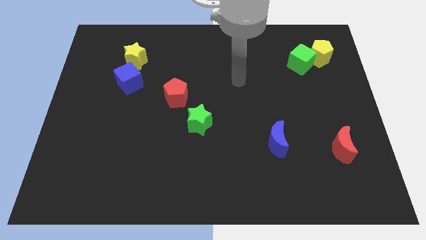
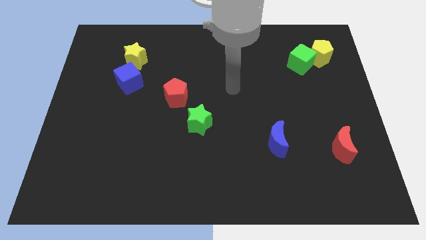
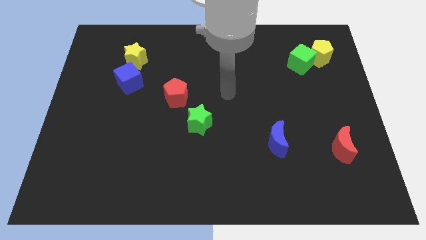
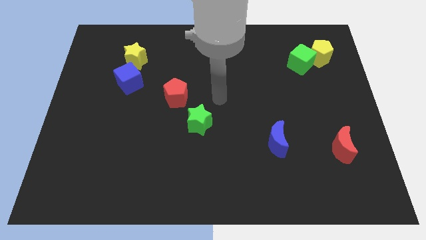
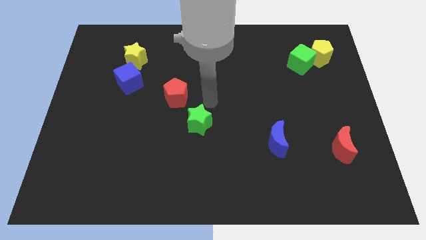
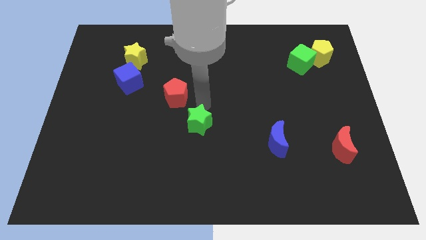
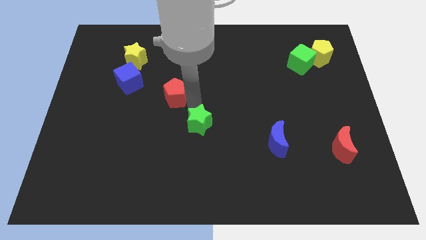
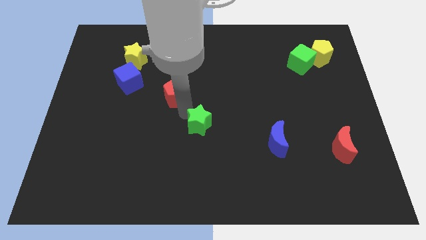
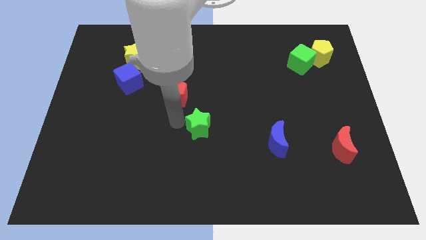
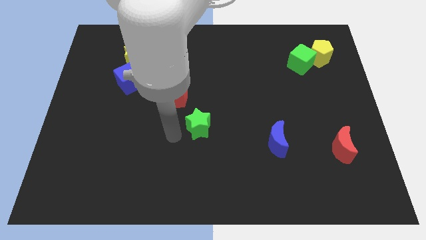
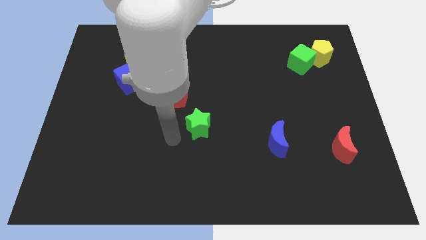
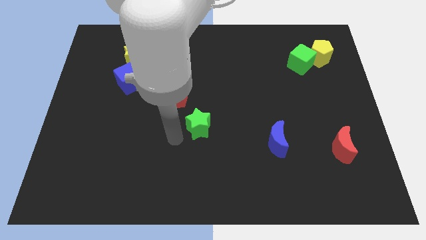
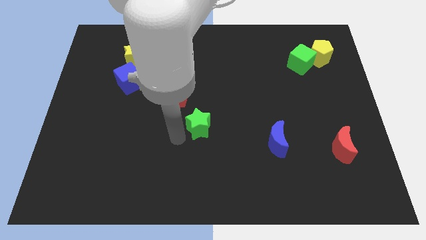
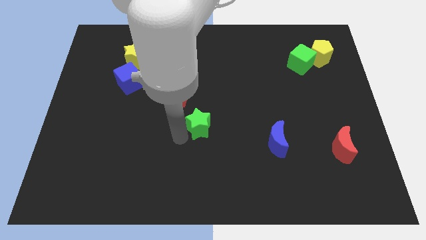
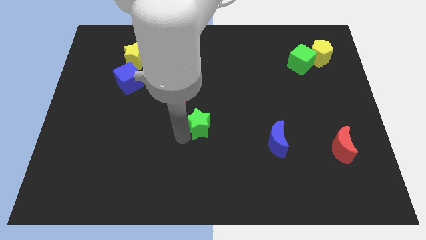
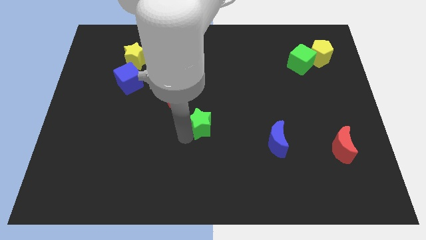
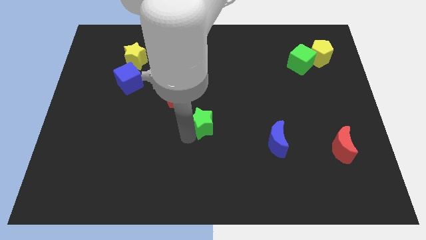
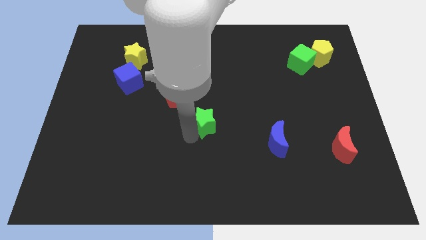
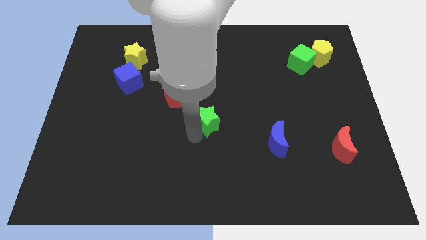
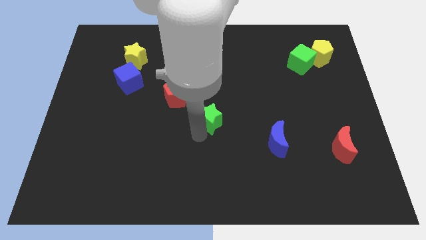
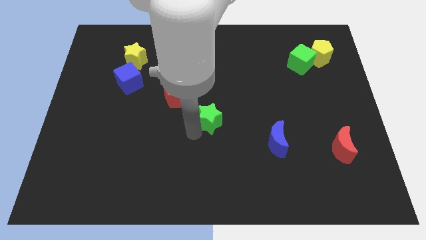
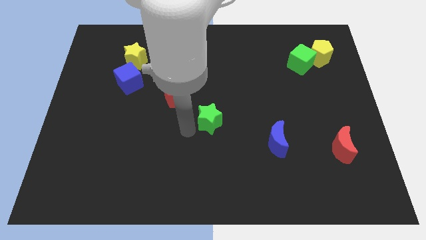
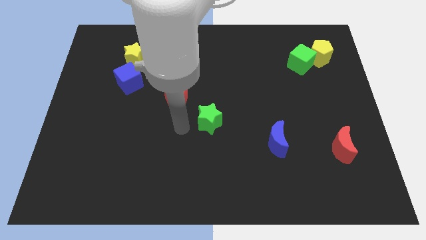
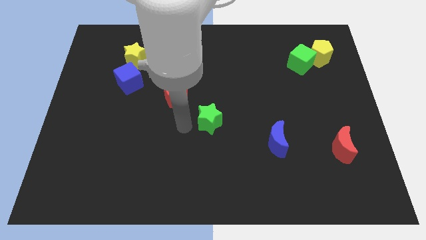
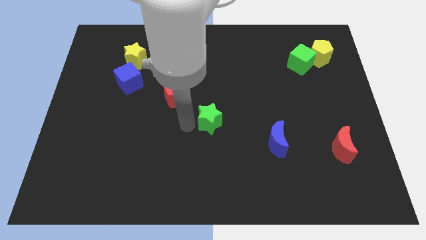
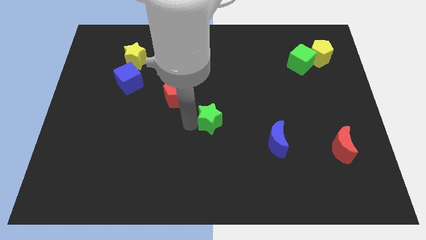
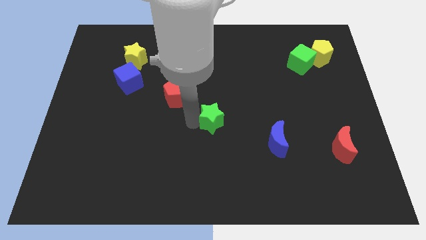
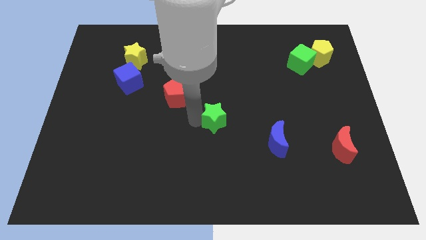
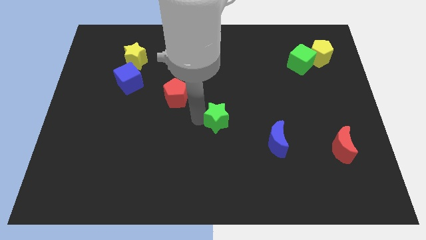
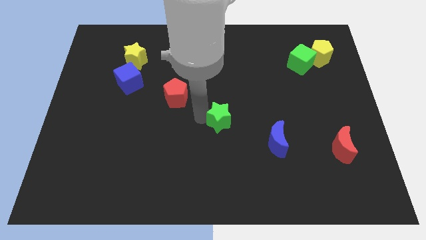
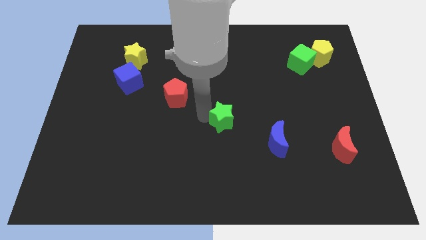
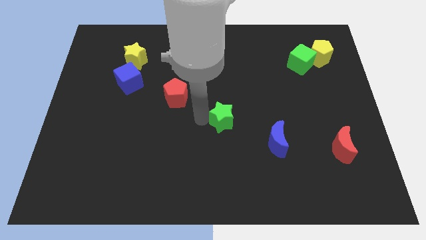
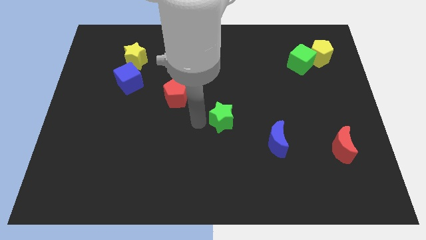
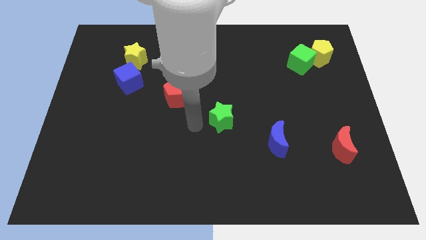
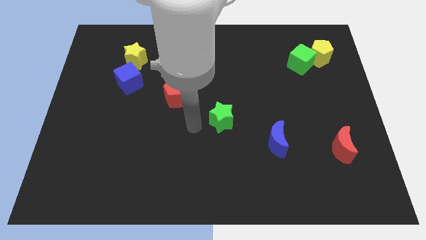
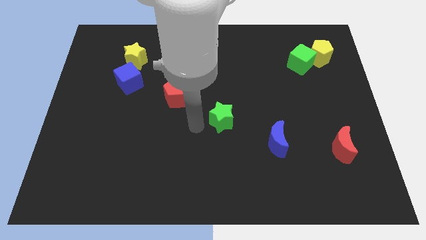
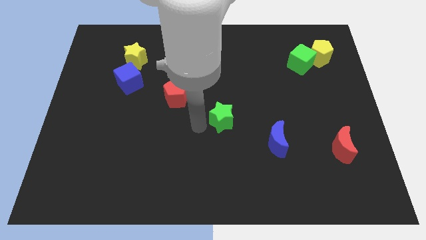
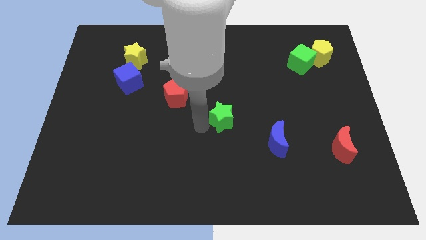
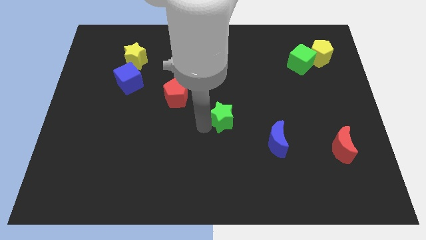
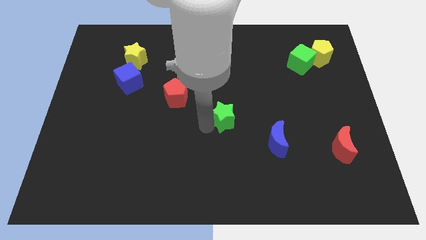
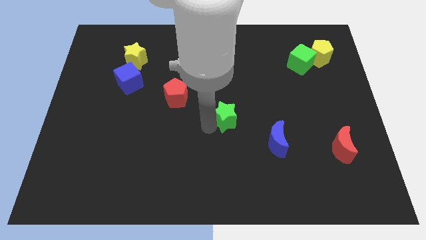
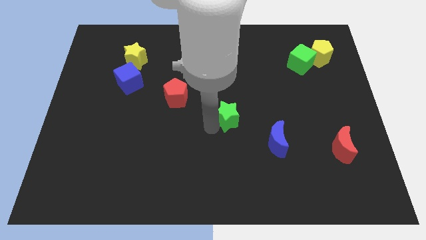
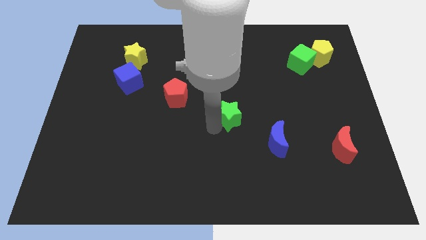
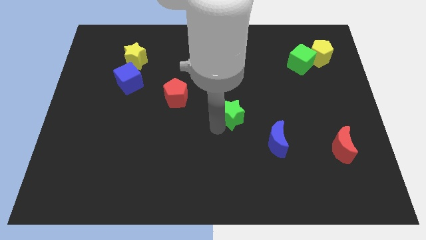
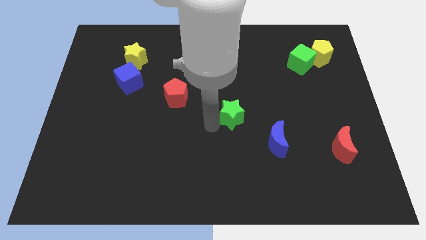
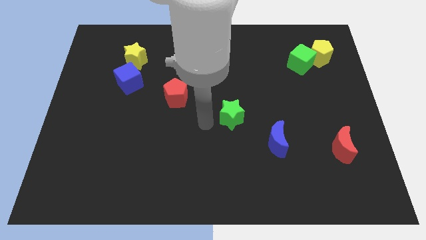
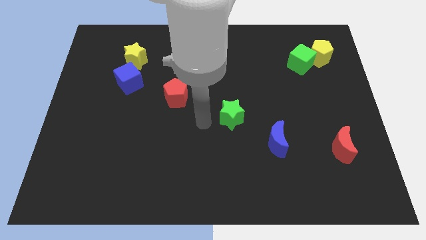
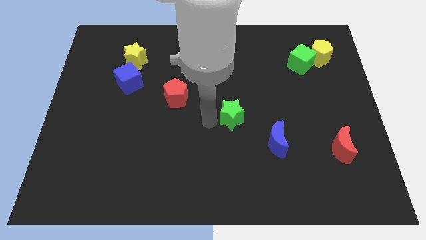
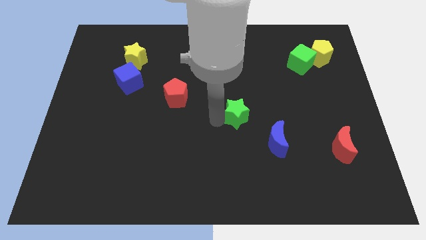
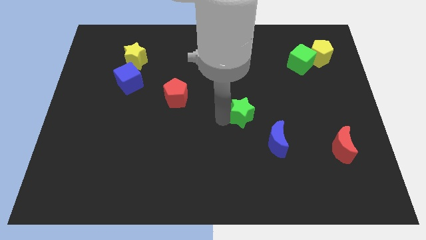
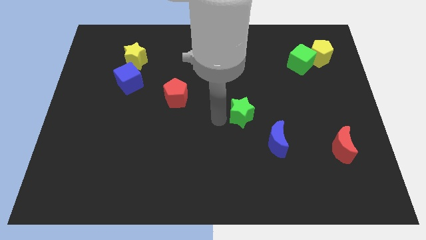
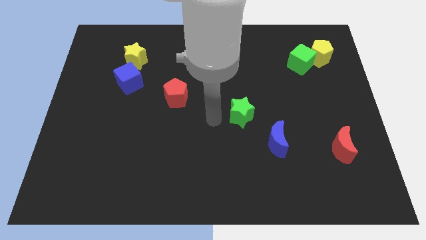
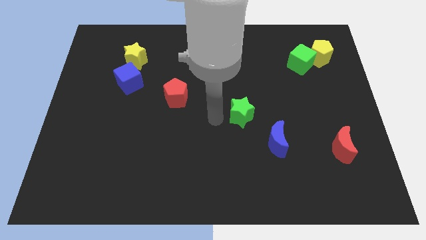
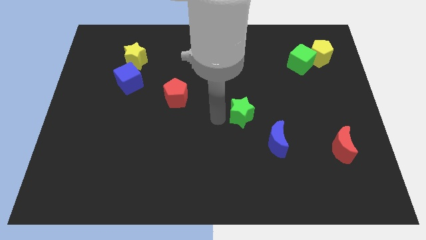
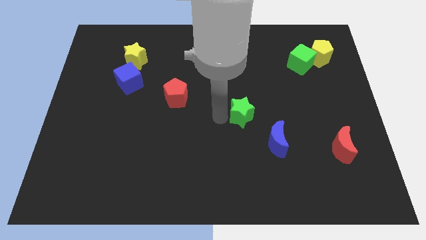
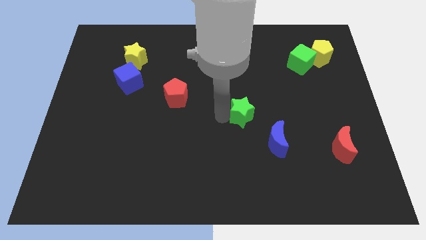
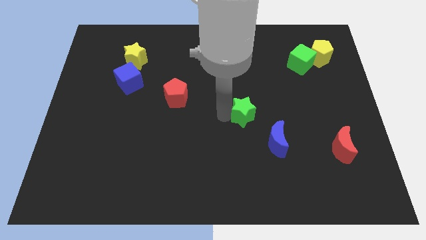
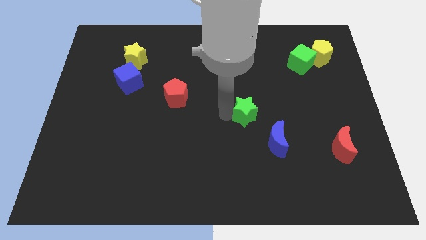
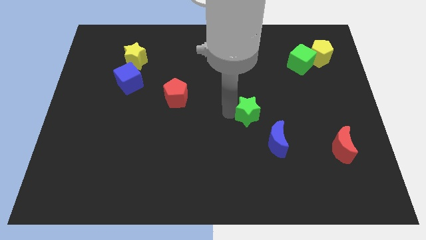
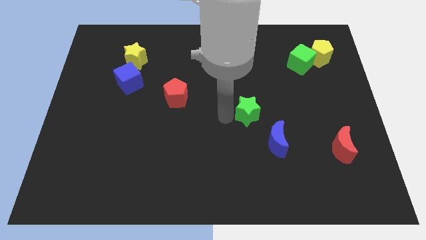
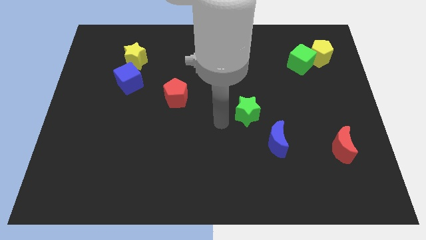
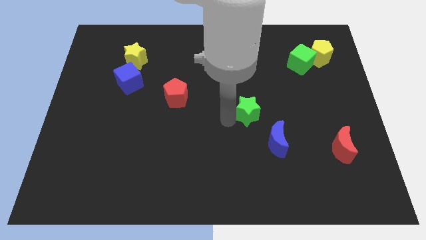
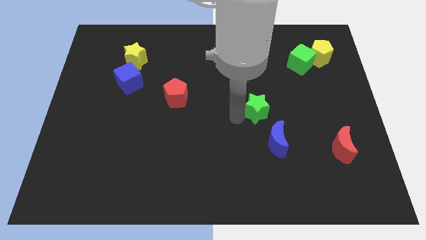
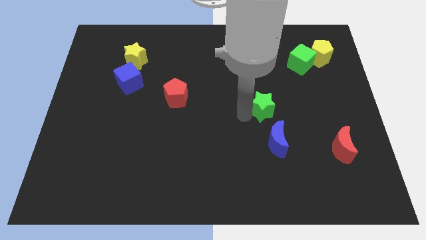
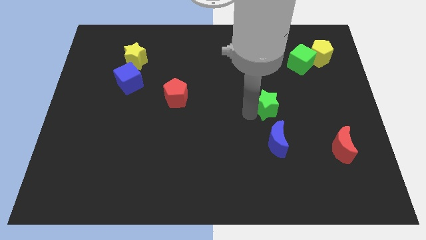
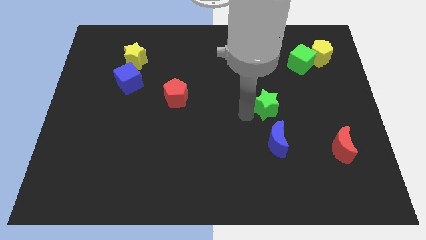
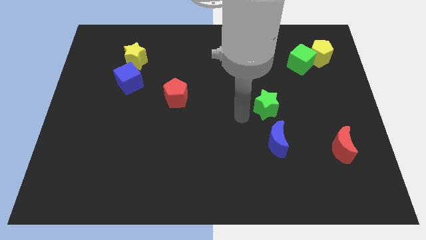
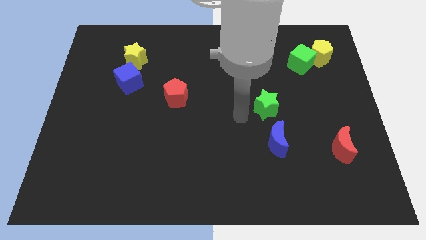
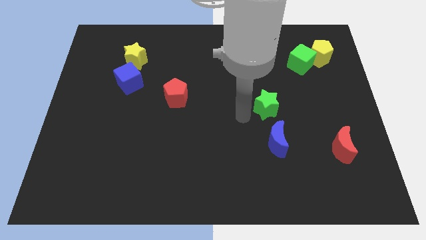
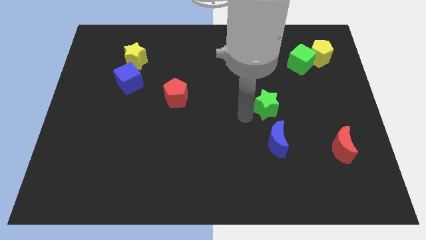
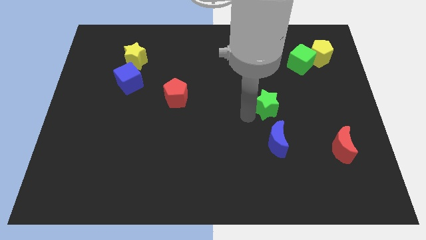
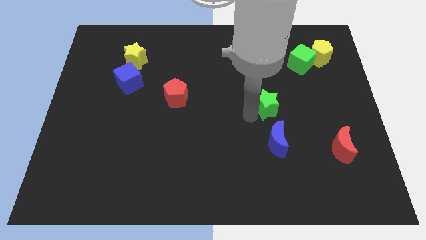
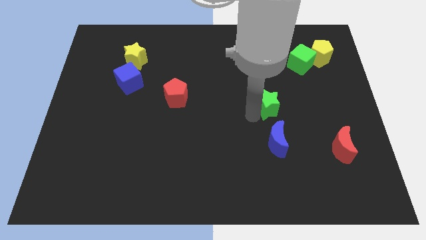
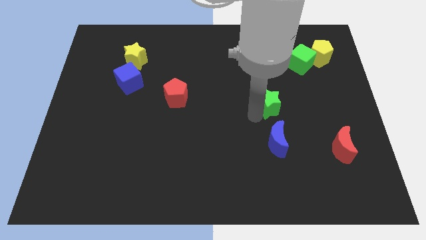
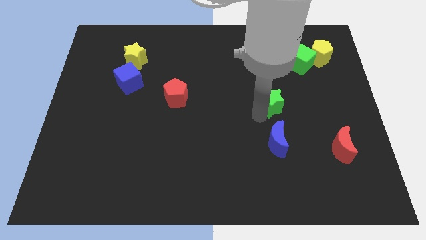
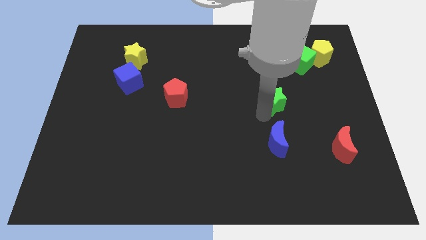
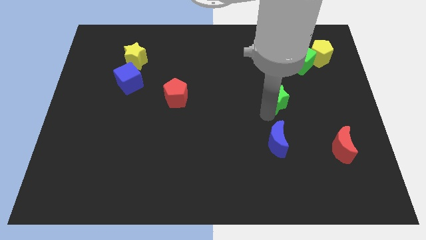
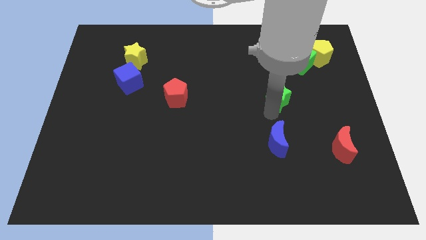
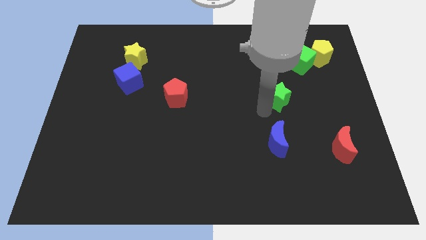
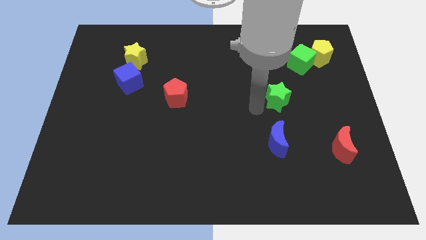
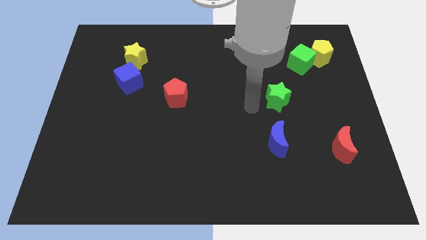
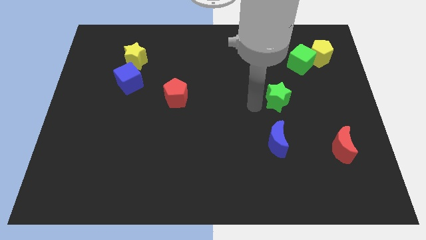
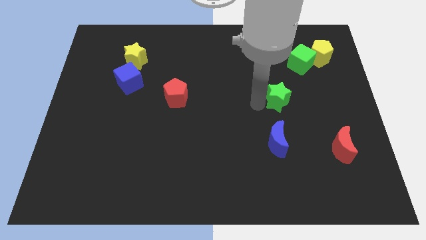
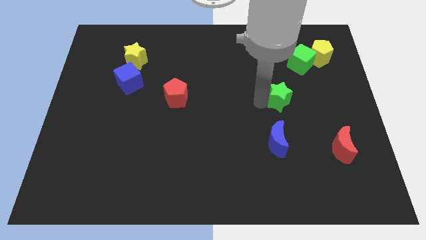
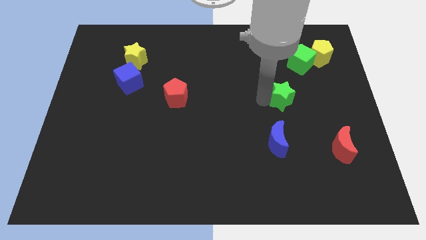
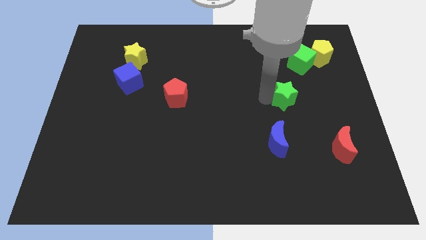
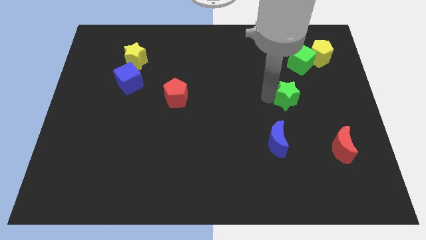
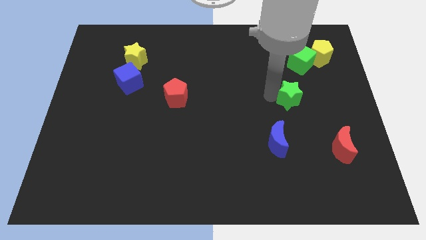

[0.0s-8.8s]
slide the green star to the bottom side of the green cube
